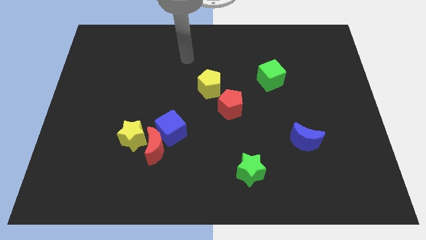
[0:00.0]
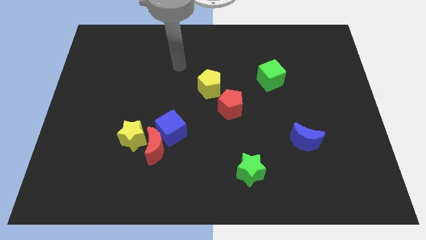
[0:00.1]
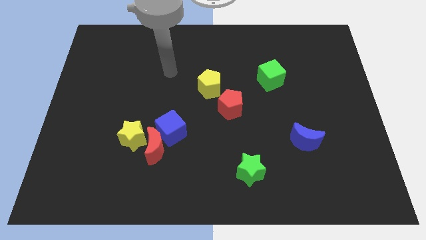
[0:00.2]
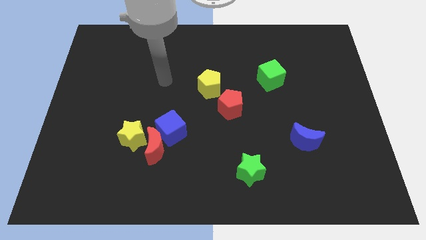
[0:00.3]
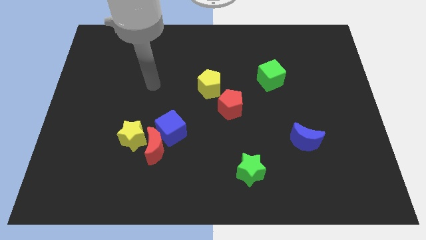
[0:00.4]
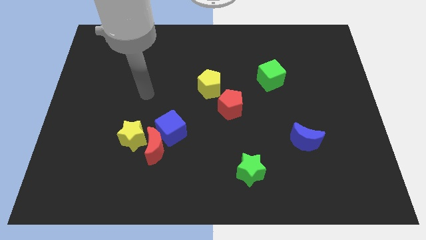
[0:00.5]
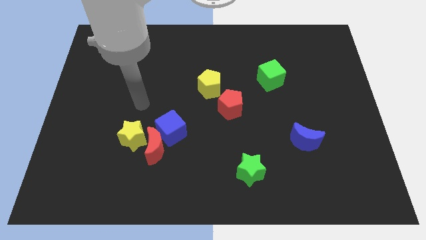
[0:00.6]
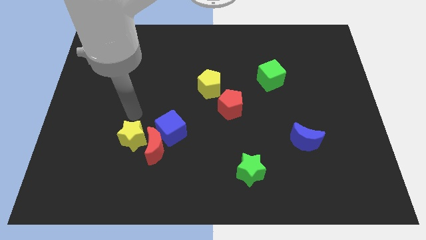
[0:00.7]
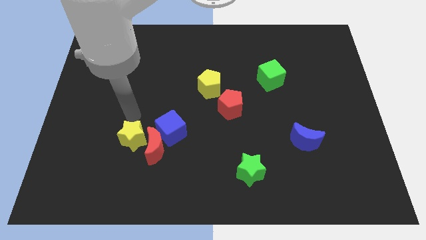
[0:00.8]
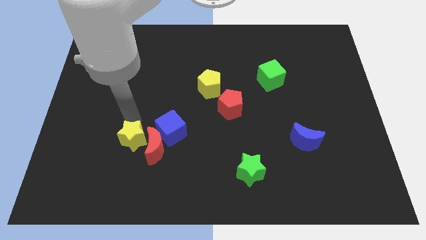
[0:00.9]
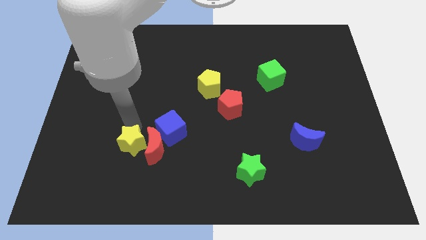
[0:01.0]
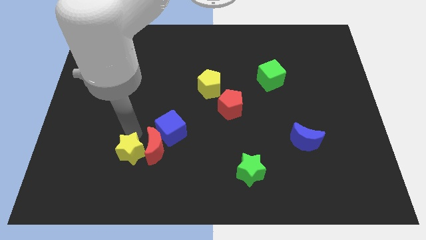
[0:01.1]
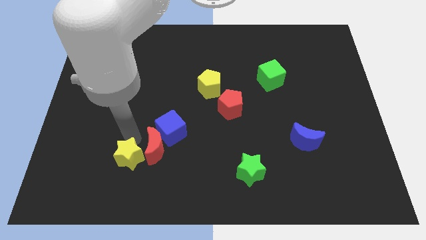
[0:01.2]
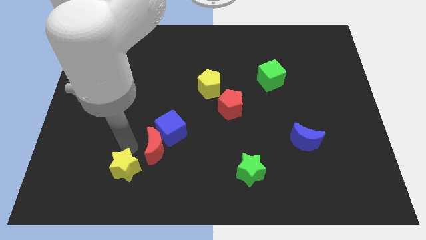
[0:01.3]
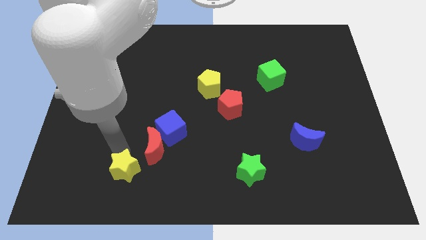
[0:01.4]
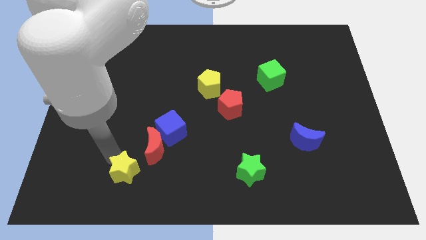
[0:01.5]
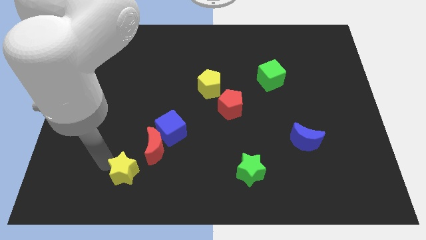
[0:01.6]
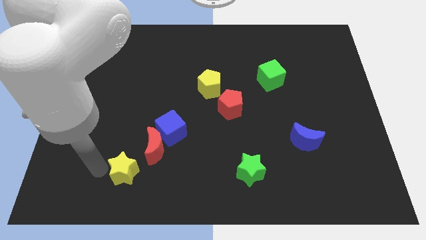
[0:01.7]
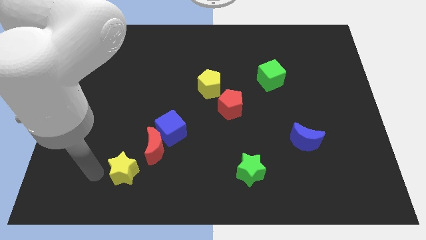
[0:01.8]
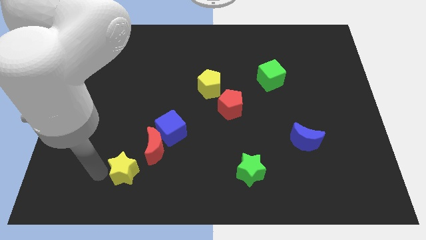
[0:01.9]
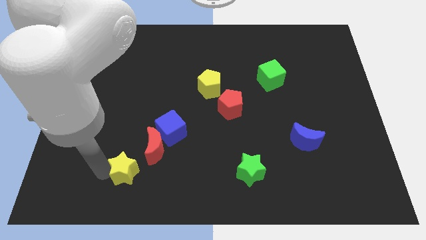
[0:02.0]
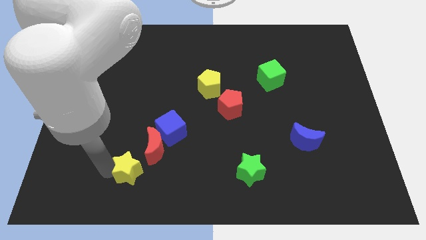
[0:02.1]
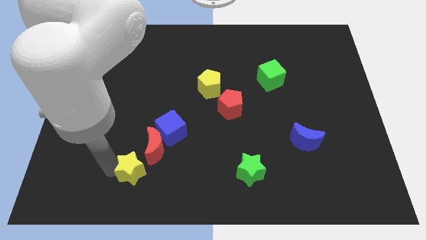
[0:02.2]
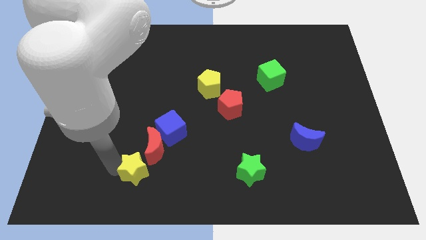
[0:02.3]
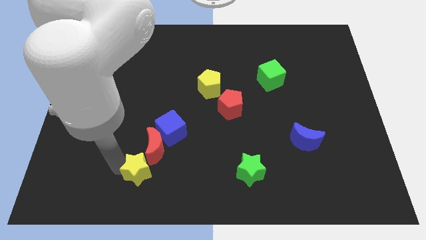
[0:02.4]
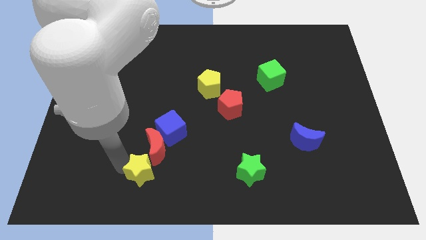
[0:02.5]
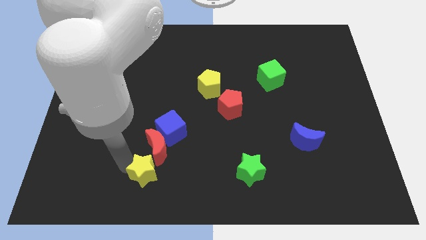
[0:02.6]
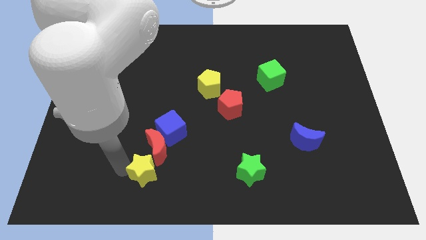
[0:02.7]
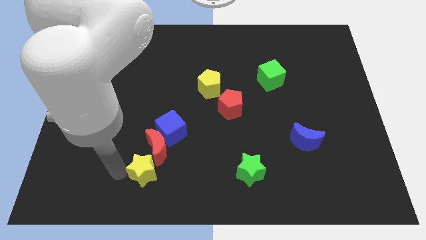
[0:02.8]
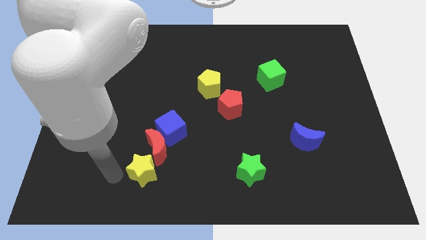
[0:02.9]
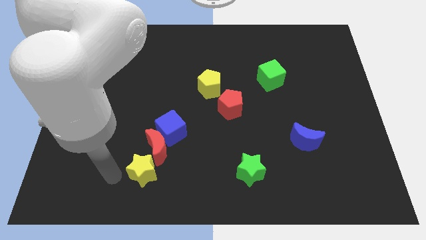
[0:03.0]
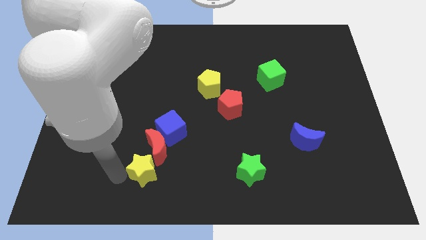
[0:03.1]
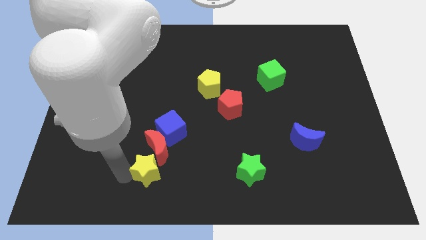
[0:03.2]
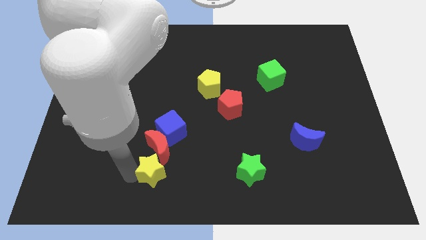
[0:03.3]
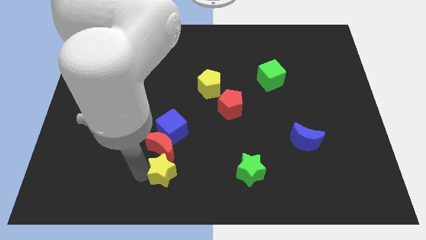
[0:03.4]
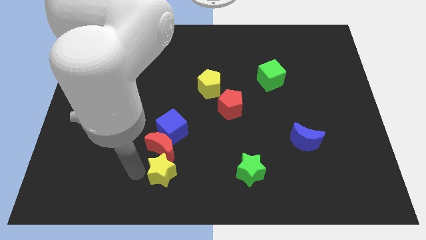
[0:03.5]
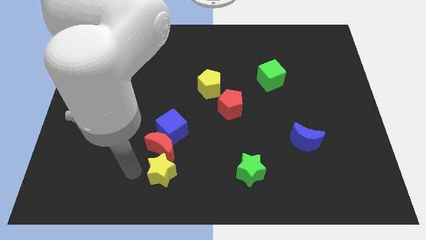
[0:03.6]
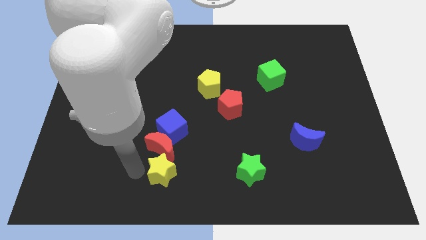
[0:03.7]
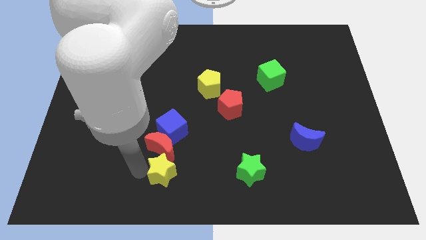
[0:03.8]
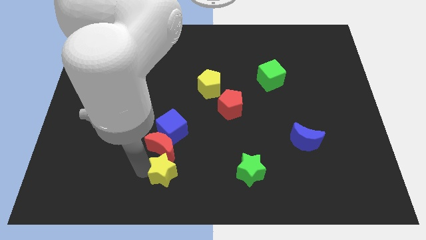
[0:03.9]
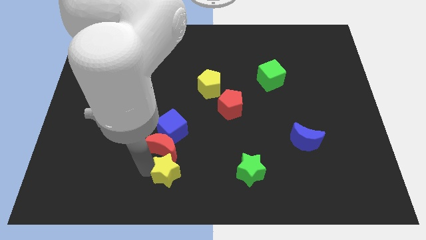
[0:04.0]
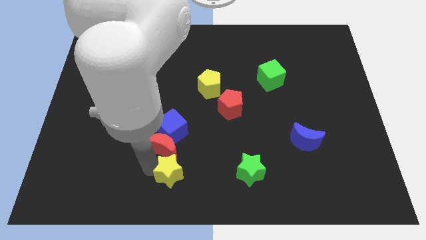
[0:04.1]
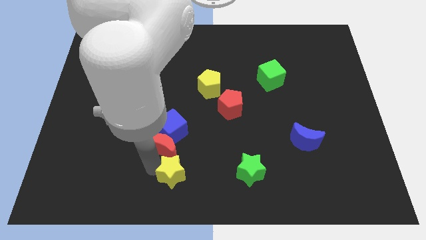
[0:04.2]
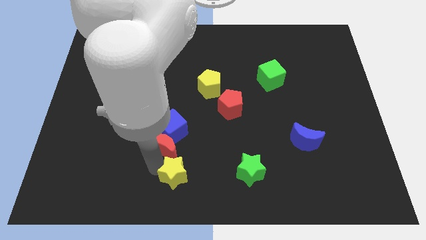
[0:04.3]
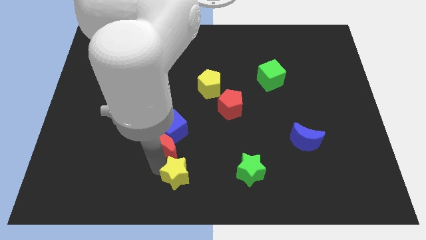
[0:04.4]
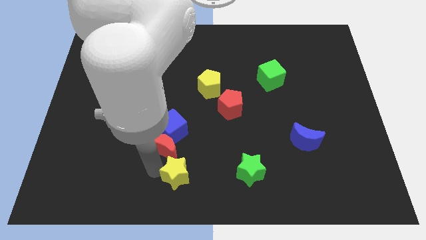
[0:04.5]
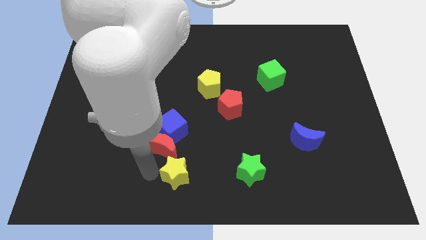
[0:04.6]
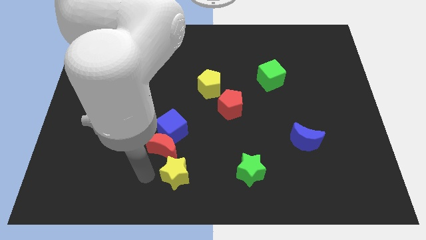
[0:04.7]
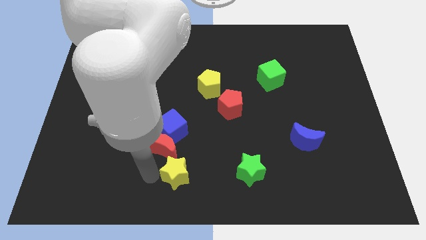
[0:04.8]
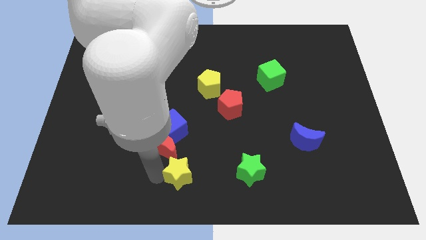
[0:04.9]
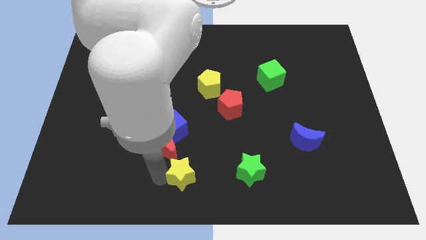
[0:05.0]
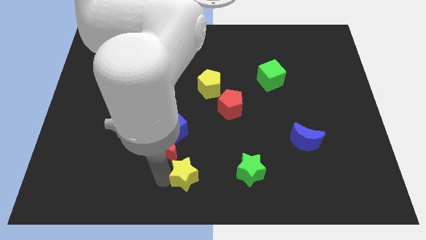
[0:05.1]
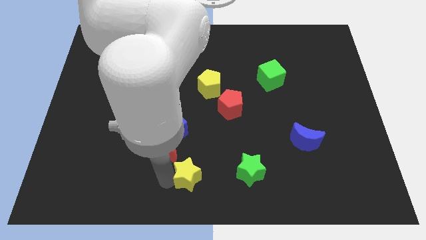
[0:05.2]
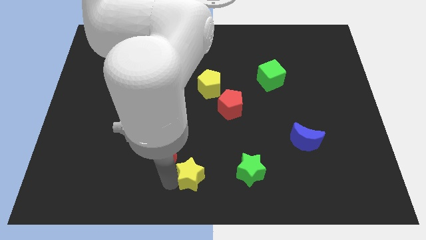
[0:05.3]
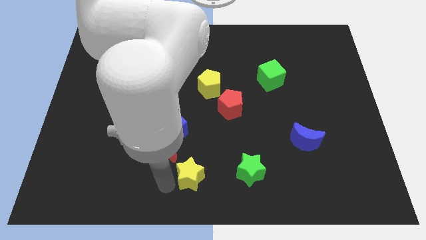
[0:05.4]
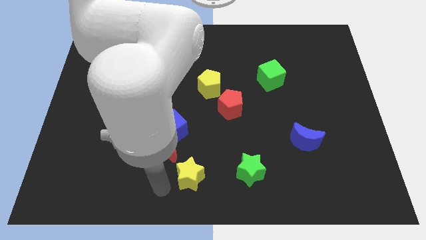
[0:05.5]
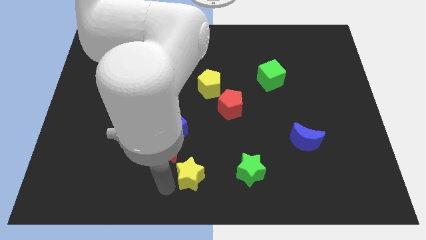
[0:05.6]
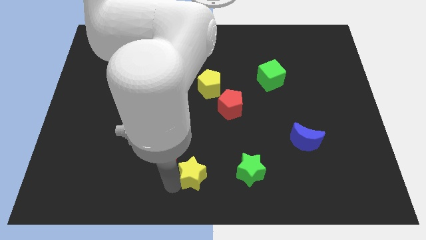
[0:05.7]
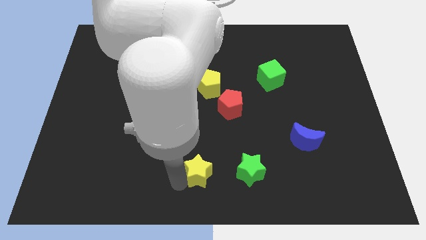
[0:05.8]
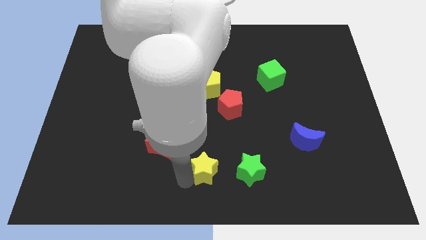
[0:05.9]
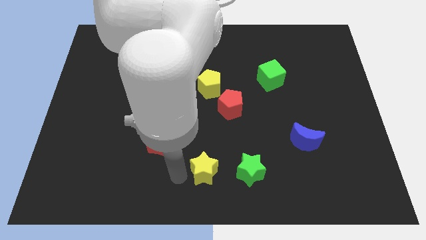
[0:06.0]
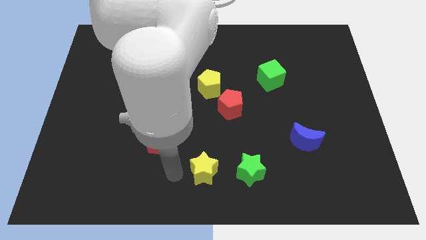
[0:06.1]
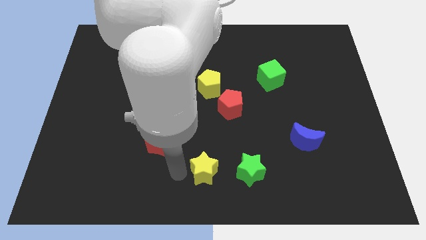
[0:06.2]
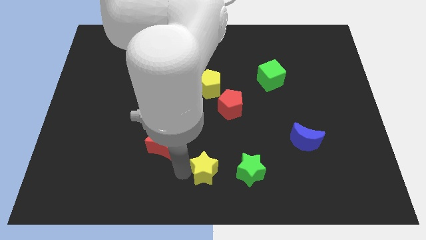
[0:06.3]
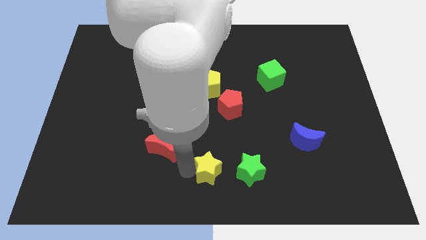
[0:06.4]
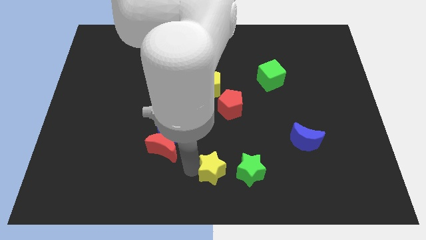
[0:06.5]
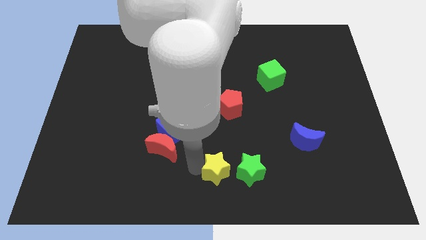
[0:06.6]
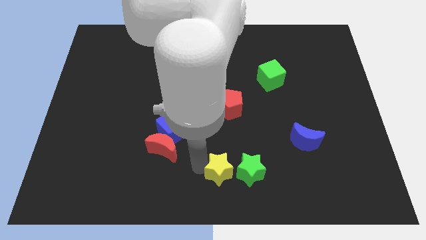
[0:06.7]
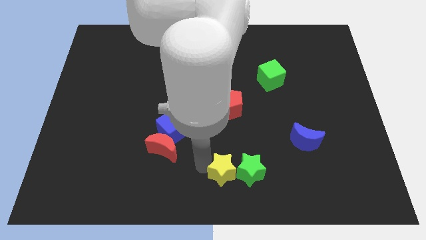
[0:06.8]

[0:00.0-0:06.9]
move the yellow star to the green star
